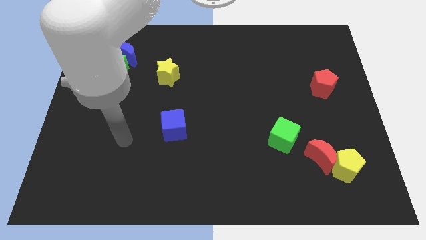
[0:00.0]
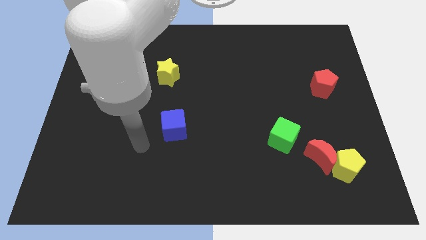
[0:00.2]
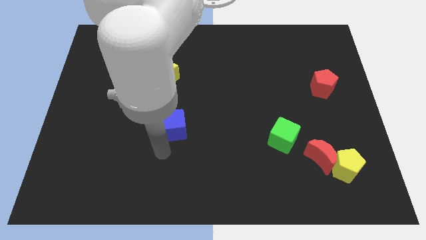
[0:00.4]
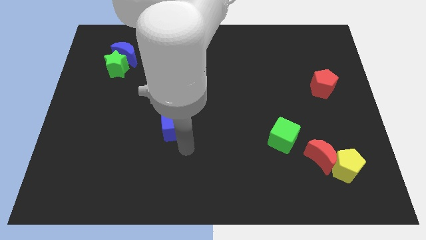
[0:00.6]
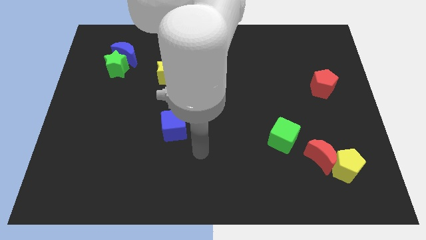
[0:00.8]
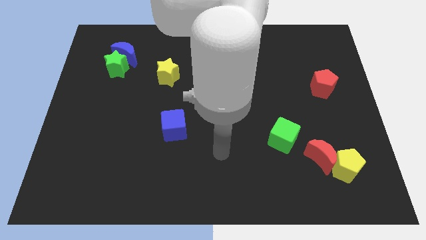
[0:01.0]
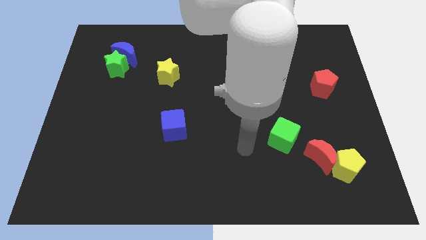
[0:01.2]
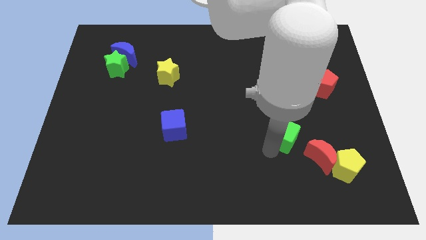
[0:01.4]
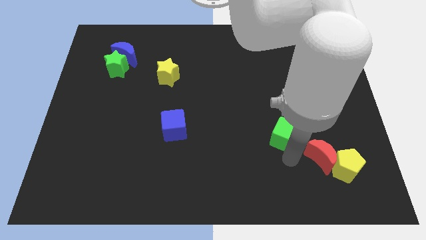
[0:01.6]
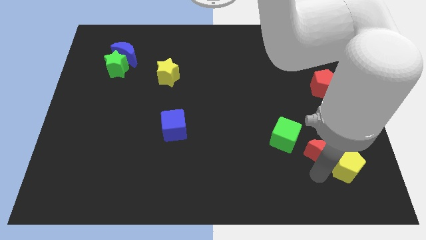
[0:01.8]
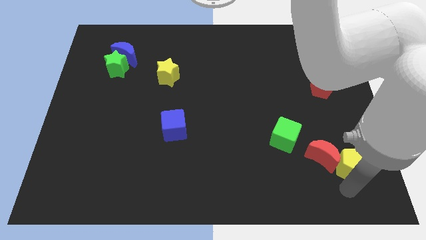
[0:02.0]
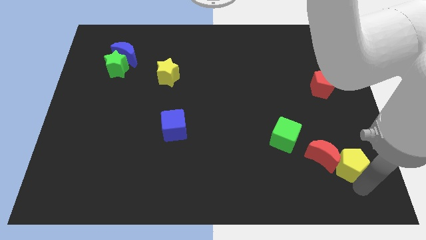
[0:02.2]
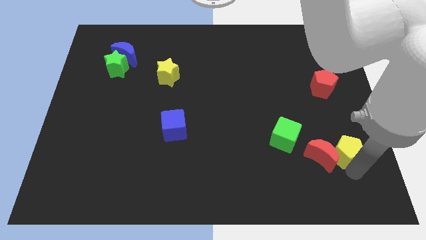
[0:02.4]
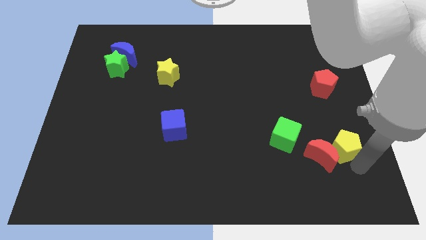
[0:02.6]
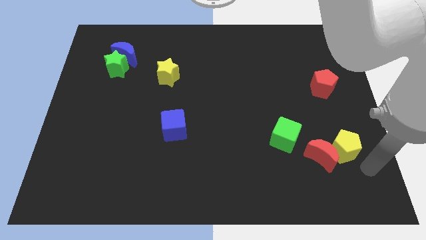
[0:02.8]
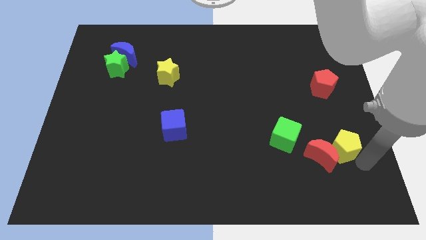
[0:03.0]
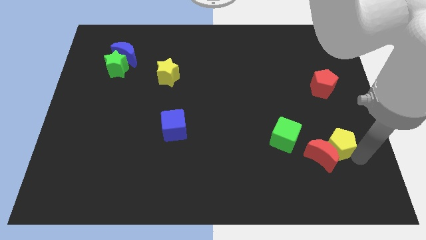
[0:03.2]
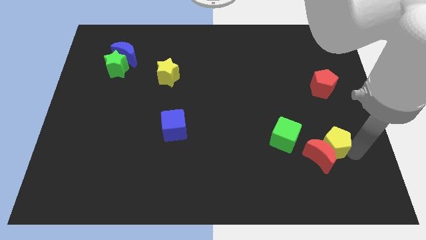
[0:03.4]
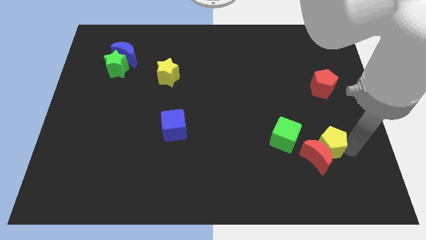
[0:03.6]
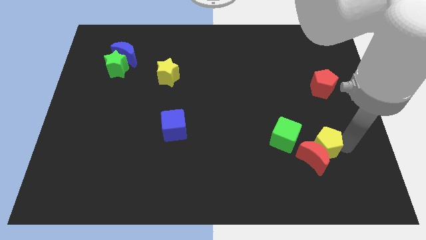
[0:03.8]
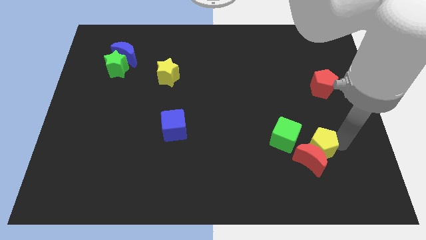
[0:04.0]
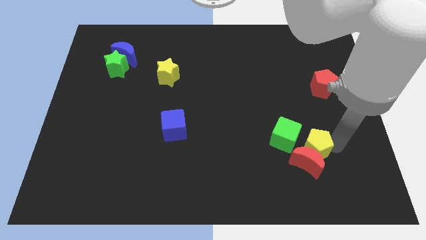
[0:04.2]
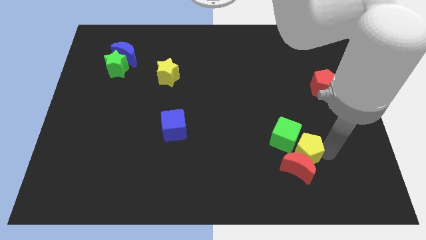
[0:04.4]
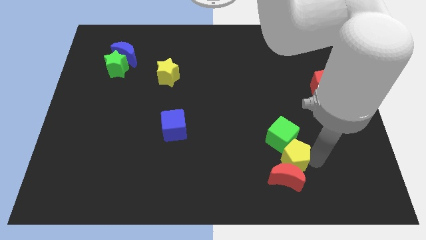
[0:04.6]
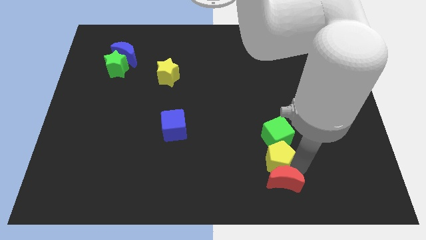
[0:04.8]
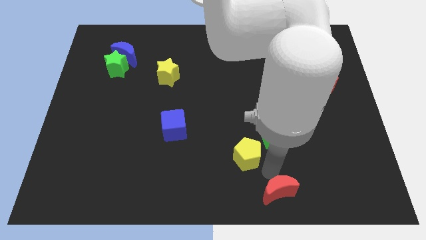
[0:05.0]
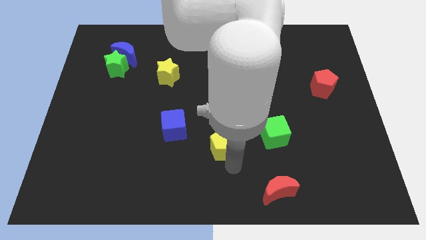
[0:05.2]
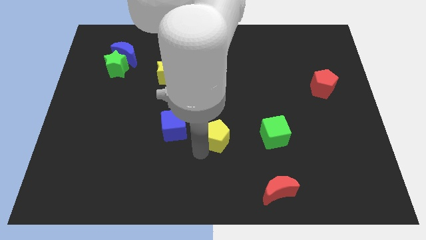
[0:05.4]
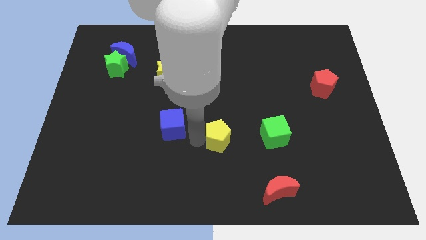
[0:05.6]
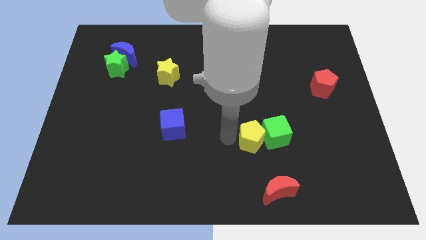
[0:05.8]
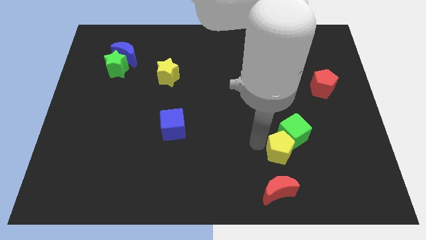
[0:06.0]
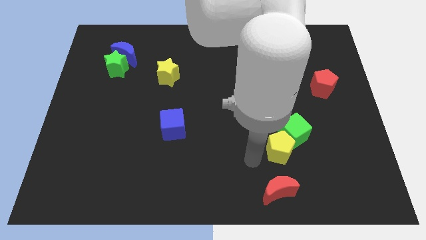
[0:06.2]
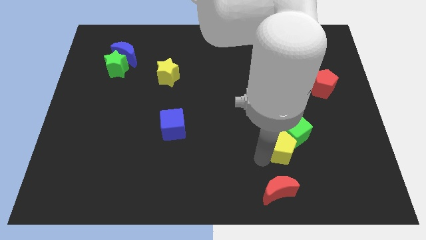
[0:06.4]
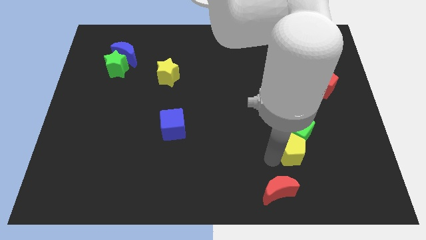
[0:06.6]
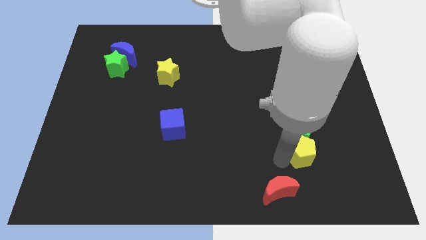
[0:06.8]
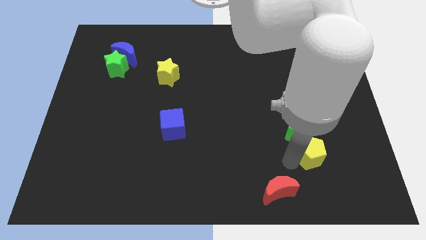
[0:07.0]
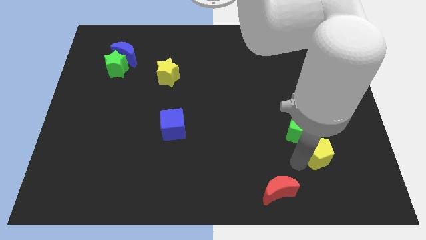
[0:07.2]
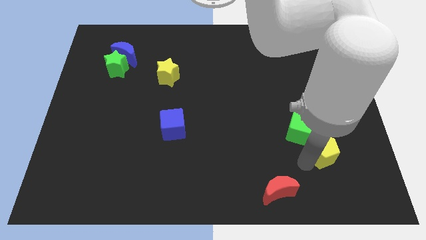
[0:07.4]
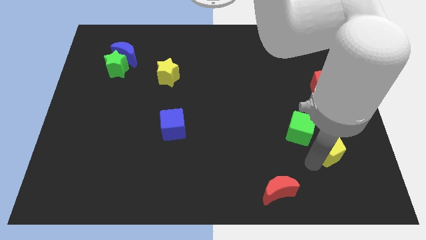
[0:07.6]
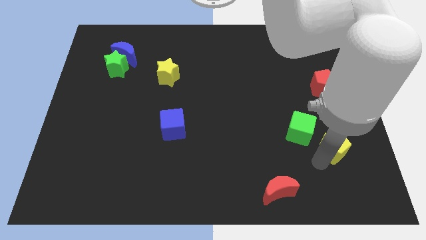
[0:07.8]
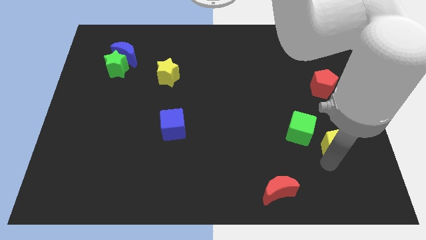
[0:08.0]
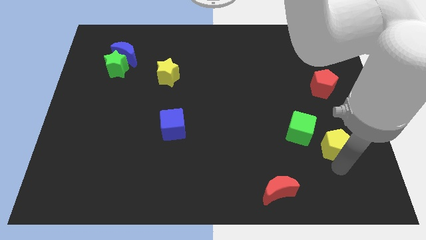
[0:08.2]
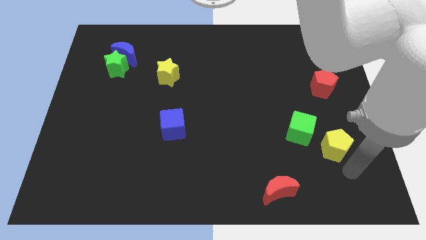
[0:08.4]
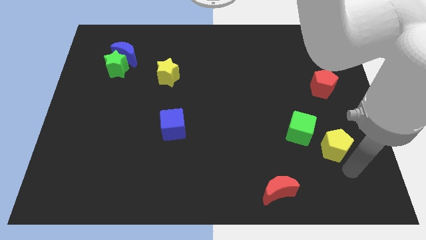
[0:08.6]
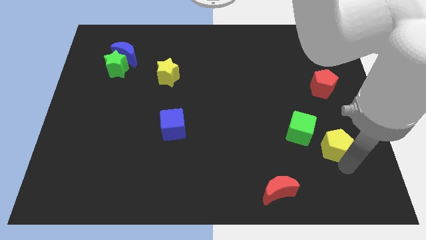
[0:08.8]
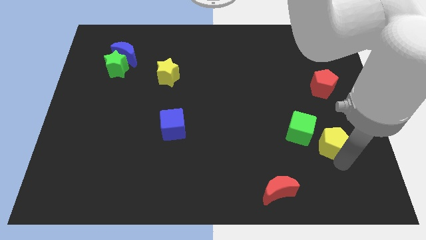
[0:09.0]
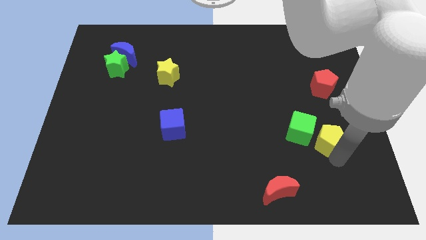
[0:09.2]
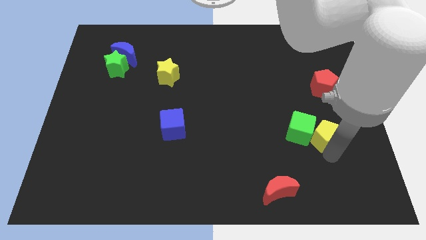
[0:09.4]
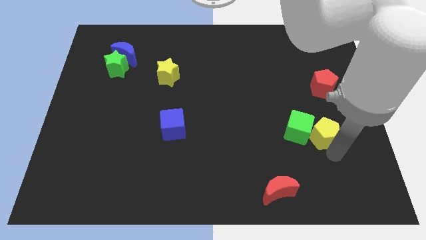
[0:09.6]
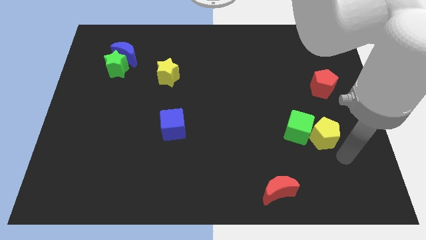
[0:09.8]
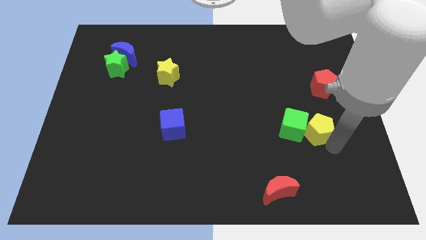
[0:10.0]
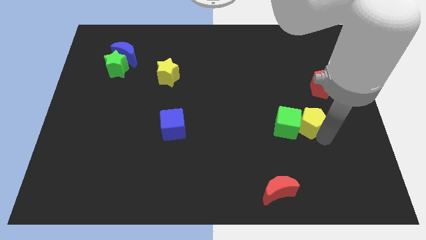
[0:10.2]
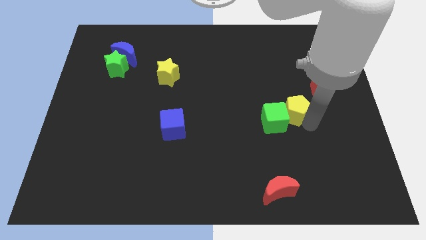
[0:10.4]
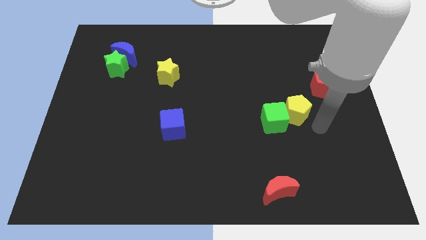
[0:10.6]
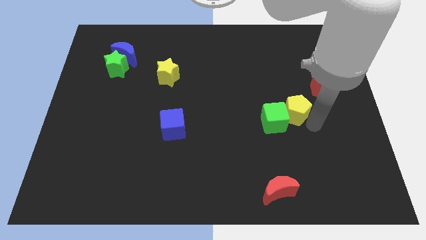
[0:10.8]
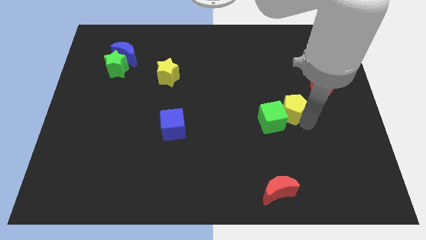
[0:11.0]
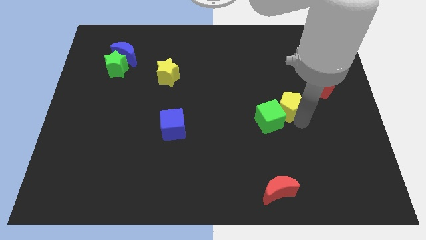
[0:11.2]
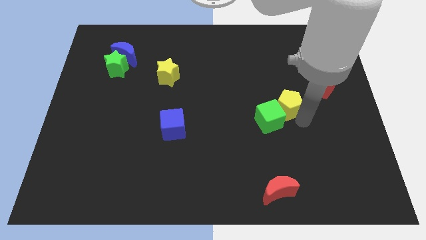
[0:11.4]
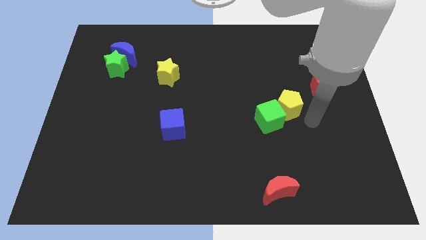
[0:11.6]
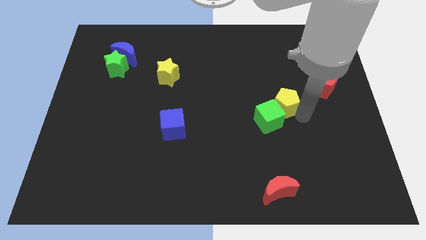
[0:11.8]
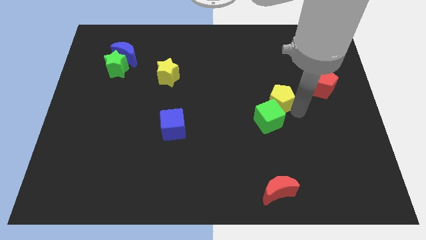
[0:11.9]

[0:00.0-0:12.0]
slide the yellow pentagon upwards and left

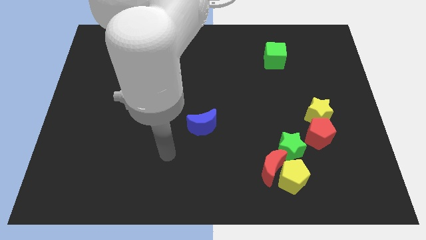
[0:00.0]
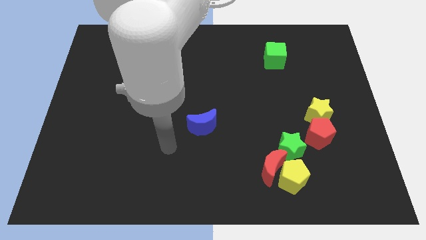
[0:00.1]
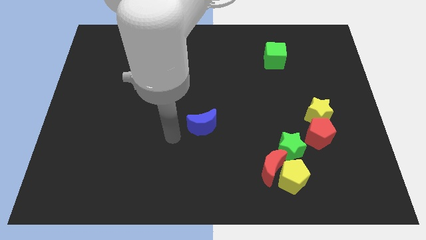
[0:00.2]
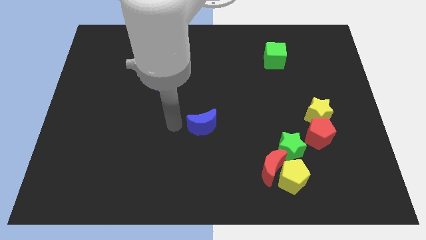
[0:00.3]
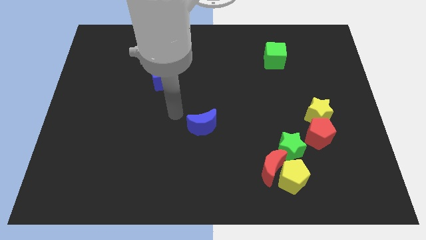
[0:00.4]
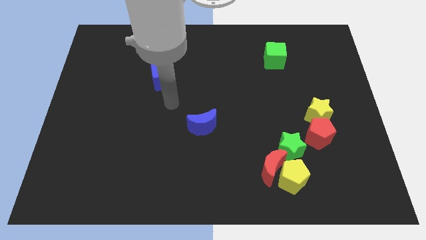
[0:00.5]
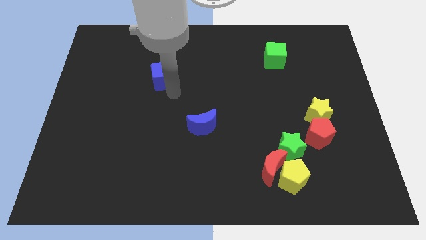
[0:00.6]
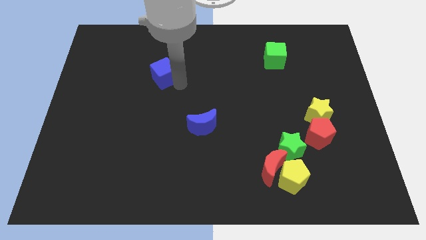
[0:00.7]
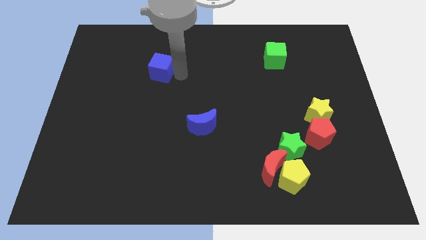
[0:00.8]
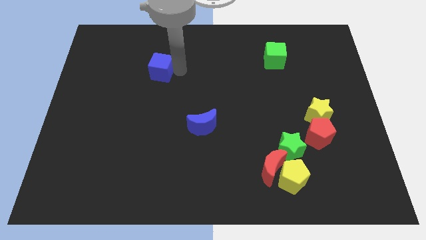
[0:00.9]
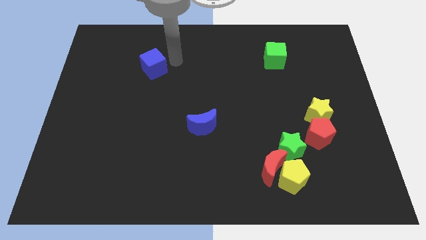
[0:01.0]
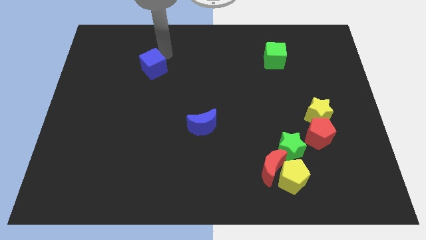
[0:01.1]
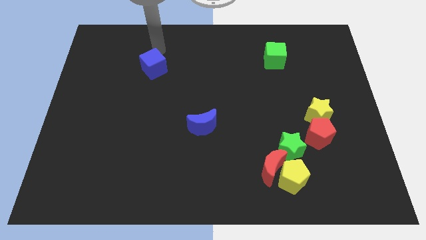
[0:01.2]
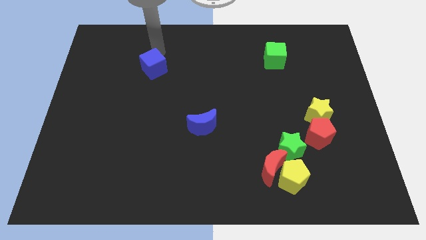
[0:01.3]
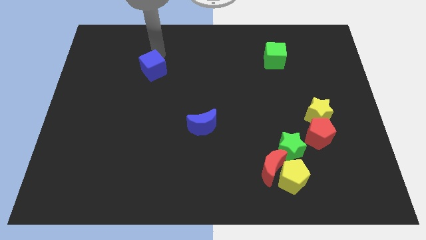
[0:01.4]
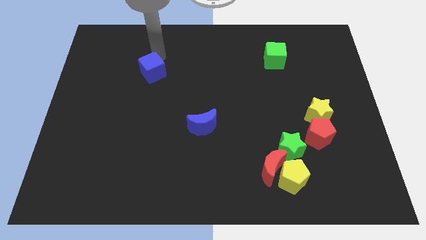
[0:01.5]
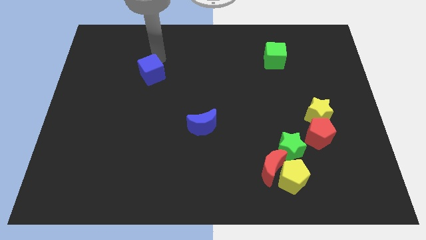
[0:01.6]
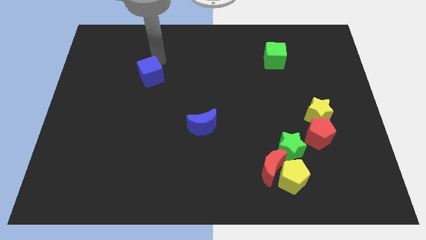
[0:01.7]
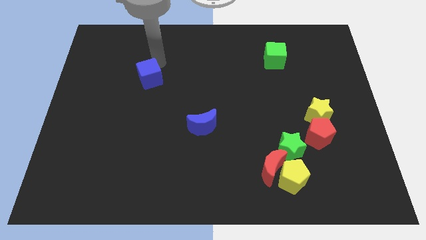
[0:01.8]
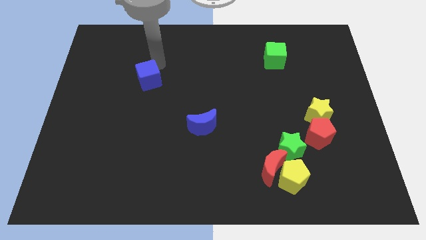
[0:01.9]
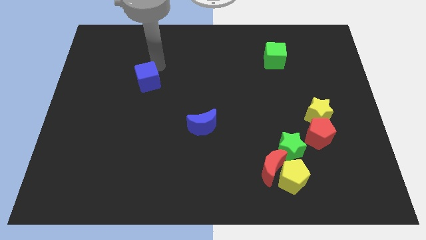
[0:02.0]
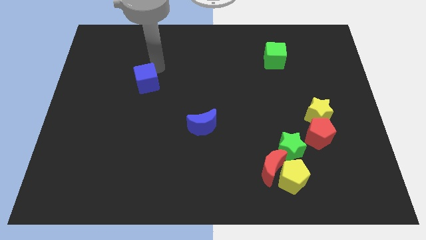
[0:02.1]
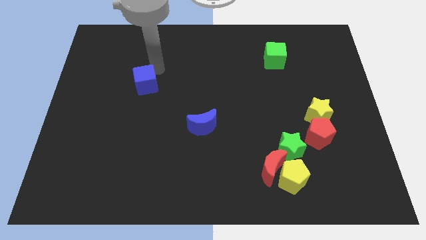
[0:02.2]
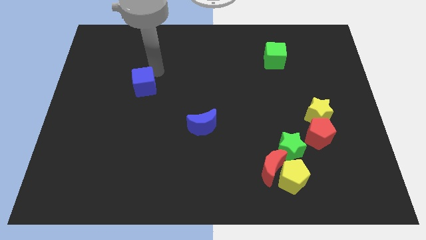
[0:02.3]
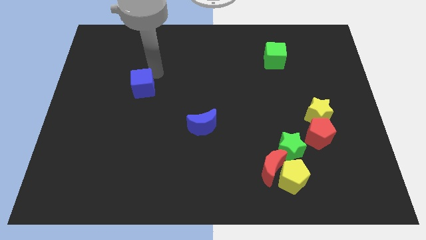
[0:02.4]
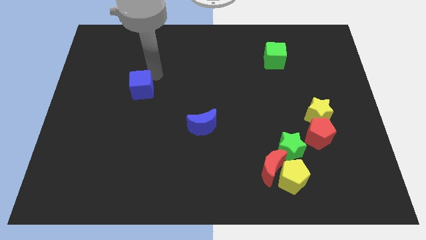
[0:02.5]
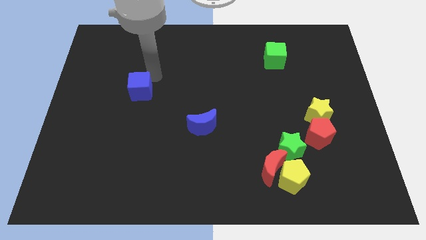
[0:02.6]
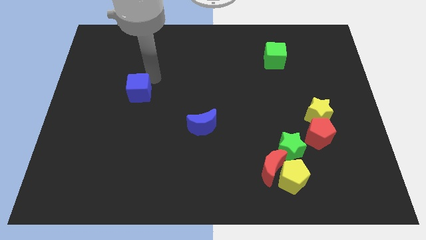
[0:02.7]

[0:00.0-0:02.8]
slide the blue cube down and to the left diagonally somewhat
